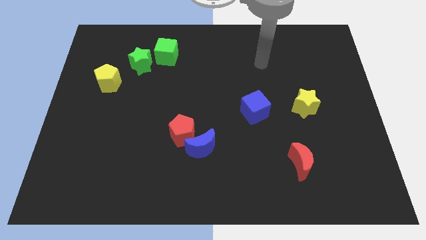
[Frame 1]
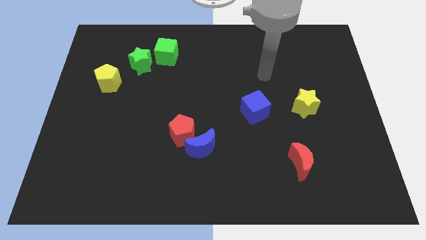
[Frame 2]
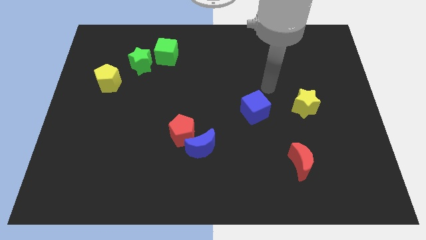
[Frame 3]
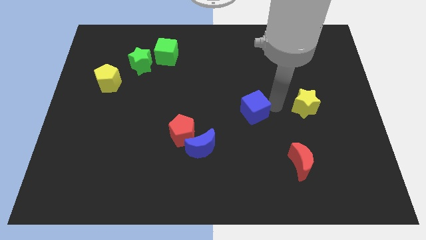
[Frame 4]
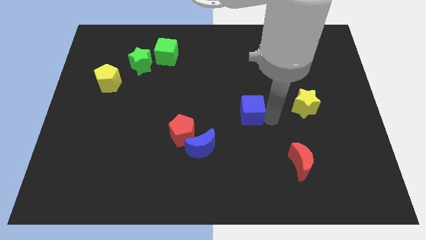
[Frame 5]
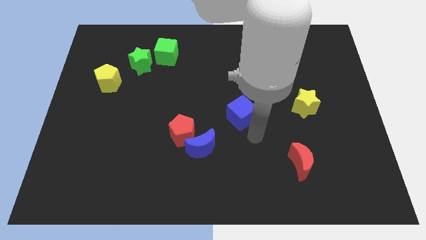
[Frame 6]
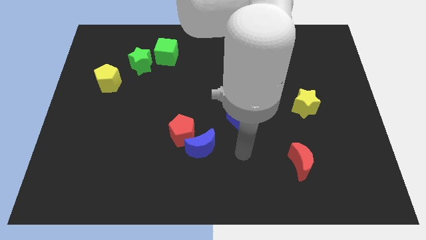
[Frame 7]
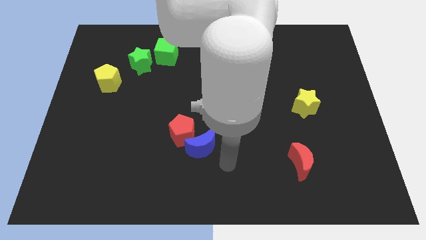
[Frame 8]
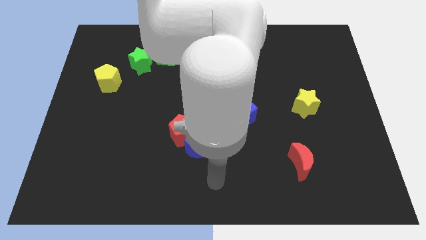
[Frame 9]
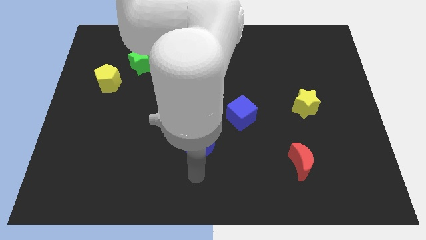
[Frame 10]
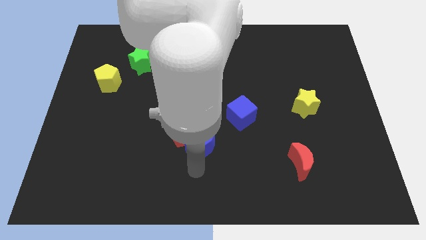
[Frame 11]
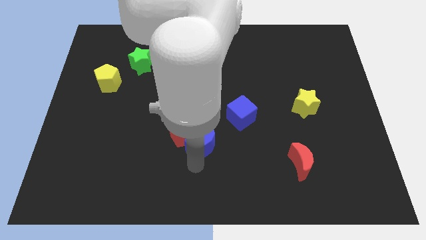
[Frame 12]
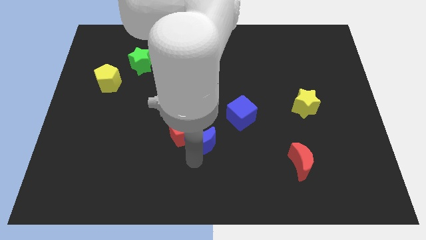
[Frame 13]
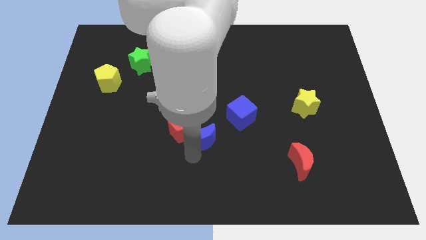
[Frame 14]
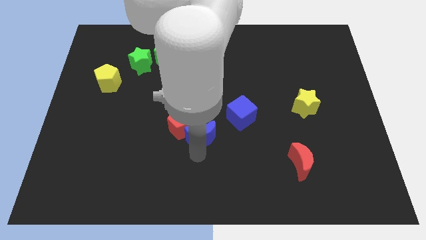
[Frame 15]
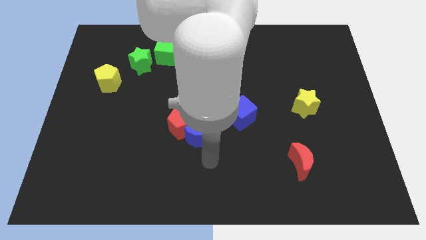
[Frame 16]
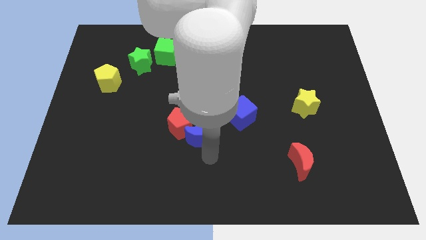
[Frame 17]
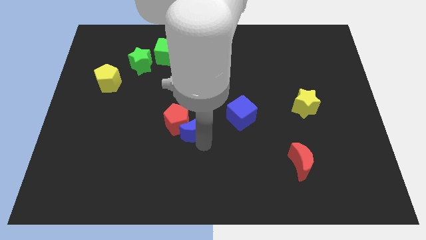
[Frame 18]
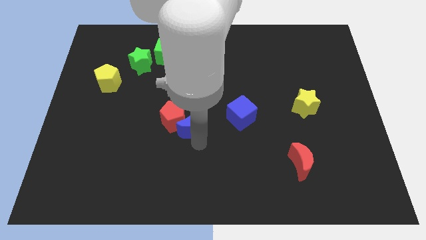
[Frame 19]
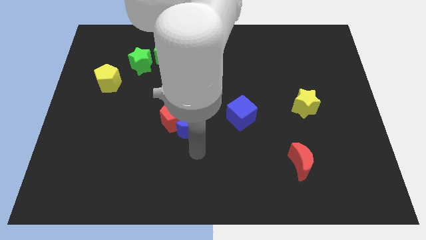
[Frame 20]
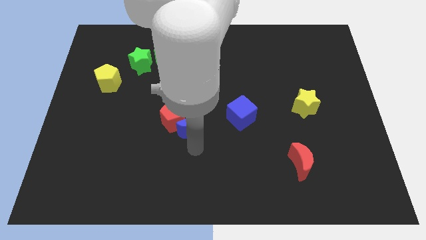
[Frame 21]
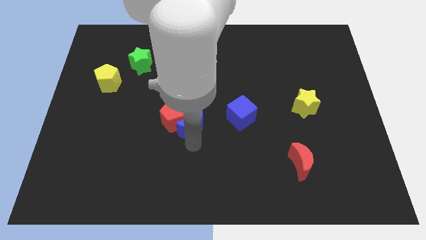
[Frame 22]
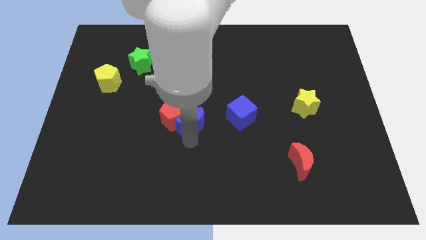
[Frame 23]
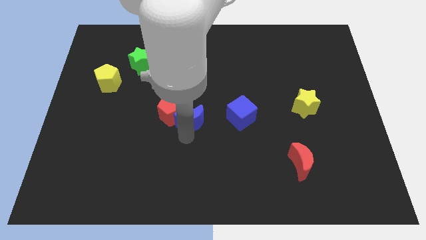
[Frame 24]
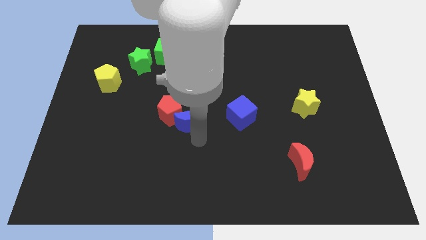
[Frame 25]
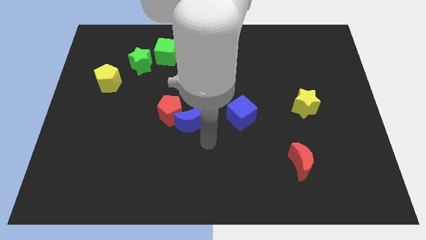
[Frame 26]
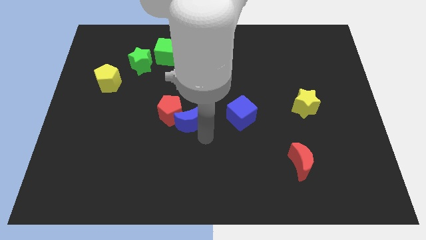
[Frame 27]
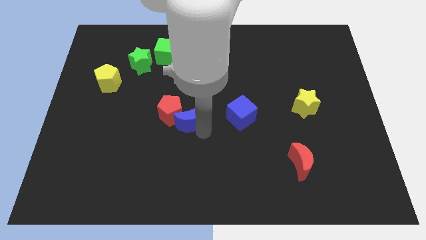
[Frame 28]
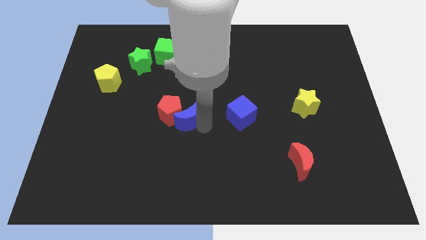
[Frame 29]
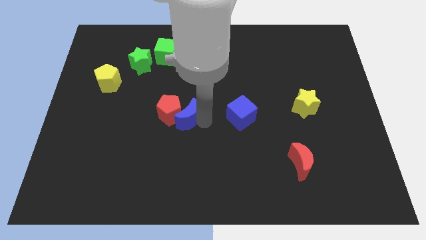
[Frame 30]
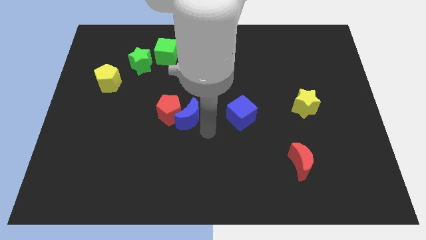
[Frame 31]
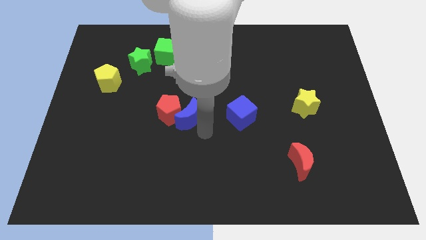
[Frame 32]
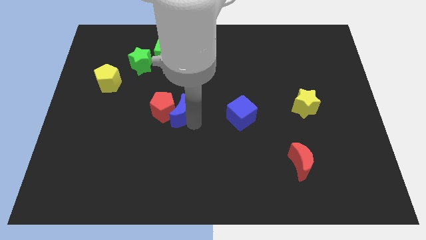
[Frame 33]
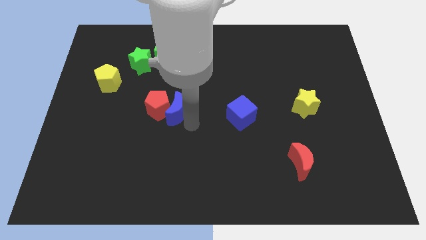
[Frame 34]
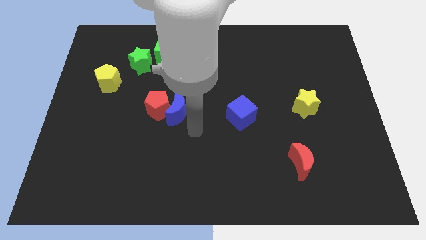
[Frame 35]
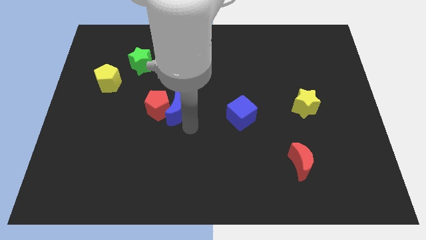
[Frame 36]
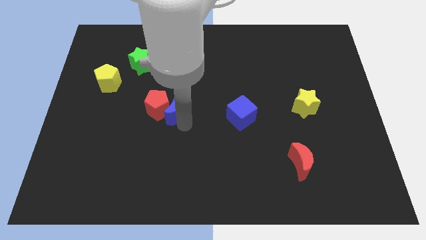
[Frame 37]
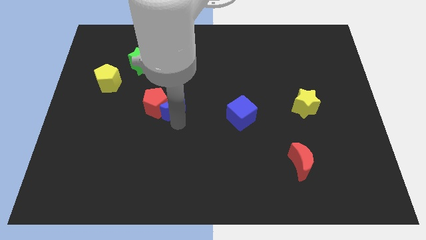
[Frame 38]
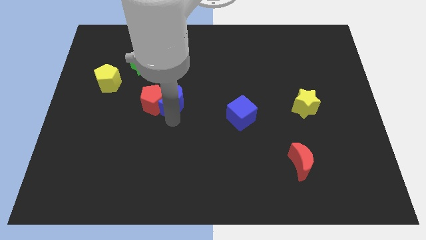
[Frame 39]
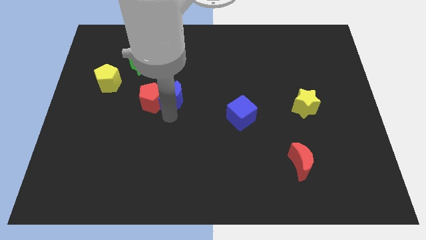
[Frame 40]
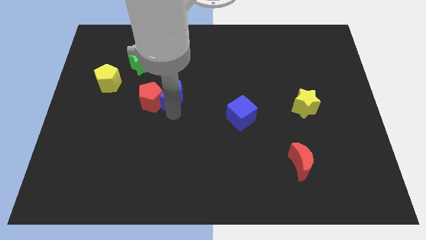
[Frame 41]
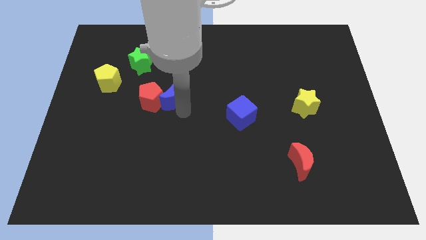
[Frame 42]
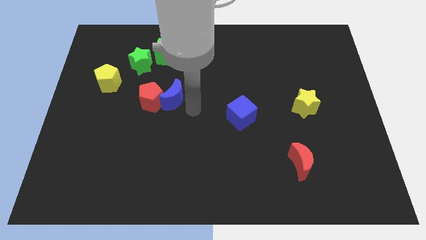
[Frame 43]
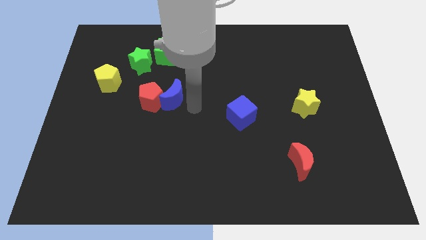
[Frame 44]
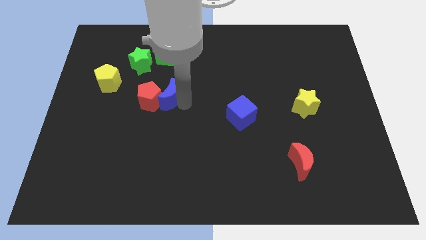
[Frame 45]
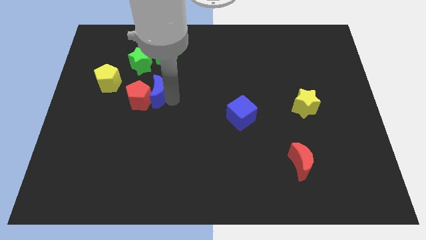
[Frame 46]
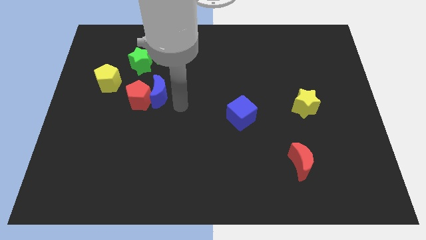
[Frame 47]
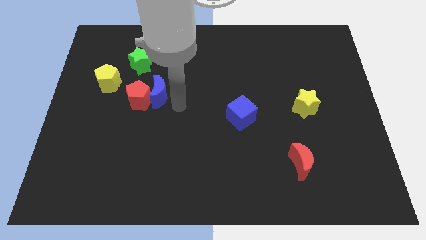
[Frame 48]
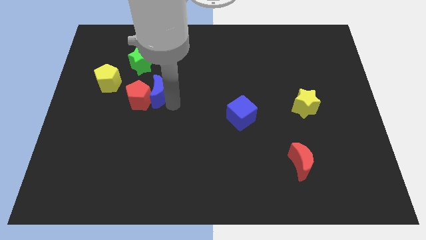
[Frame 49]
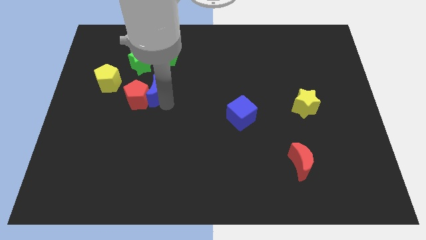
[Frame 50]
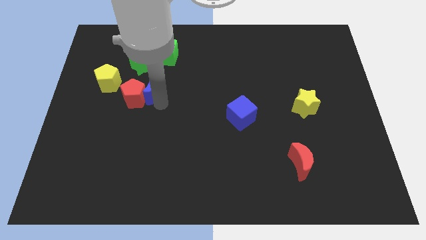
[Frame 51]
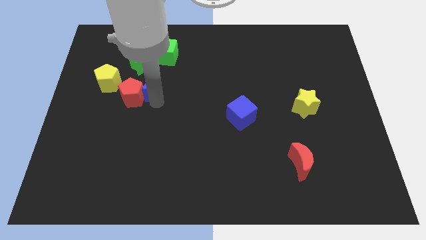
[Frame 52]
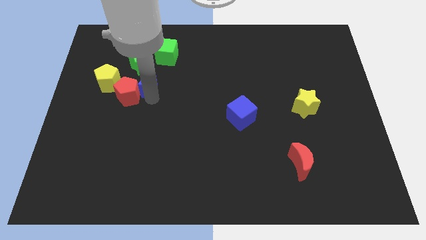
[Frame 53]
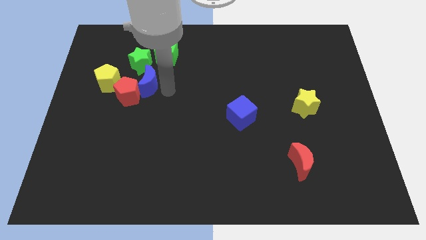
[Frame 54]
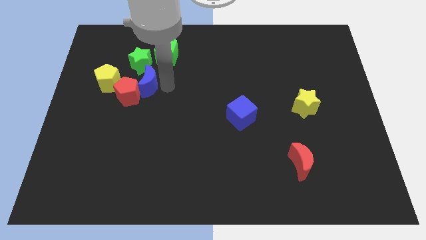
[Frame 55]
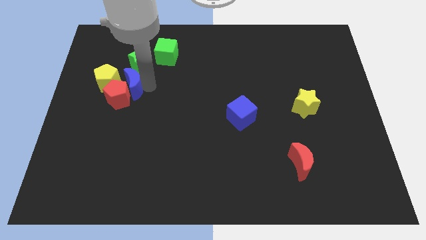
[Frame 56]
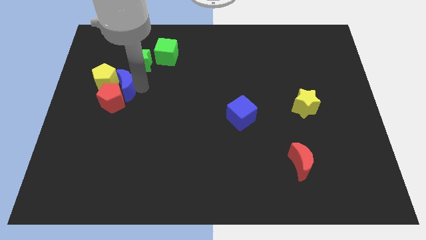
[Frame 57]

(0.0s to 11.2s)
slide the blue moon next to the yellow pentagon

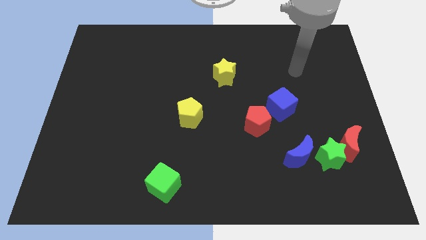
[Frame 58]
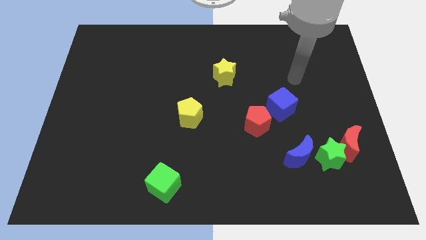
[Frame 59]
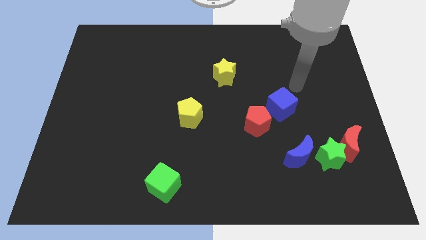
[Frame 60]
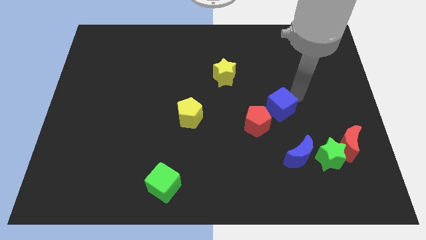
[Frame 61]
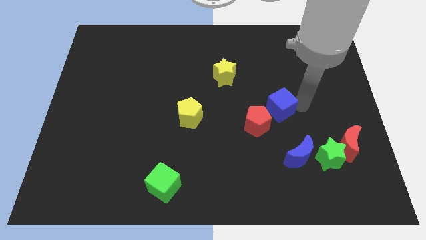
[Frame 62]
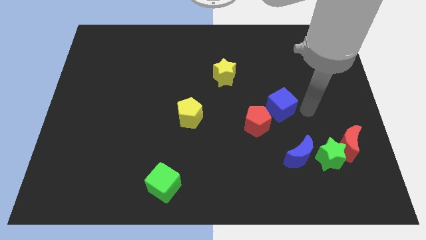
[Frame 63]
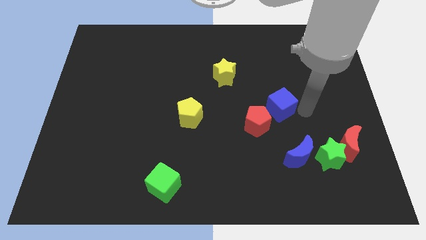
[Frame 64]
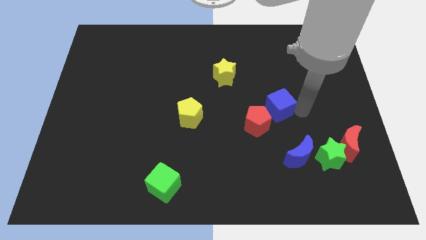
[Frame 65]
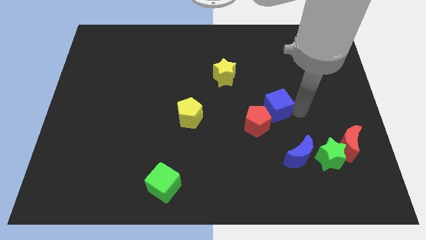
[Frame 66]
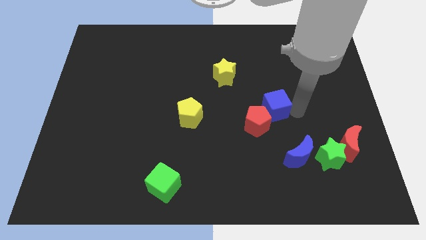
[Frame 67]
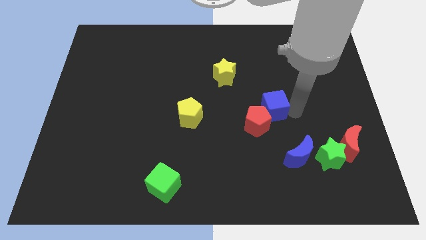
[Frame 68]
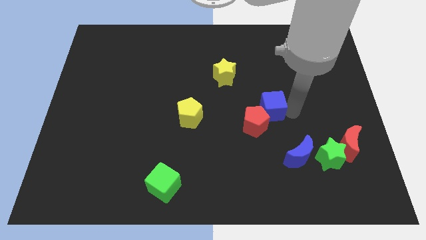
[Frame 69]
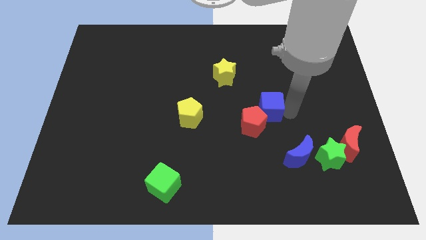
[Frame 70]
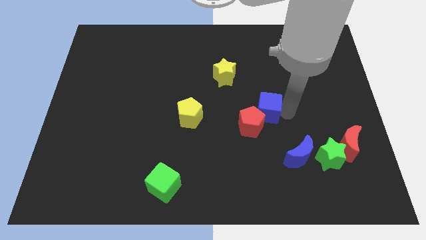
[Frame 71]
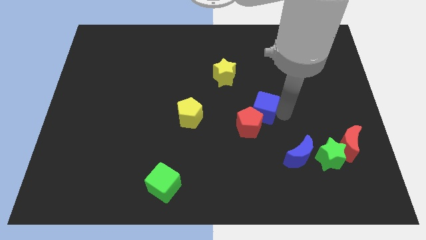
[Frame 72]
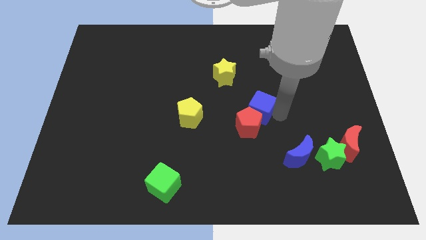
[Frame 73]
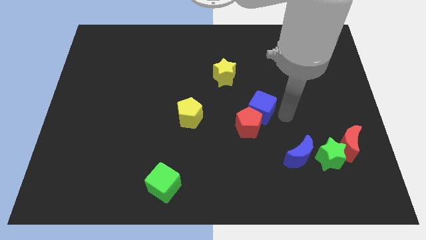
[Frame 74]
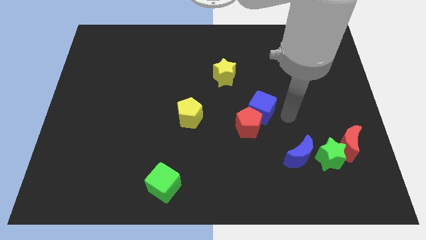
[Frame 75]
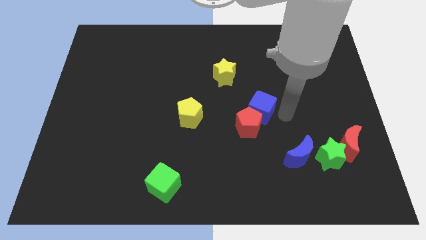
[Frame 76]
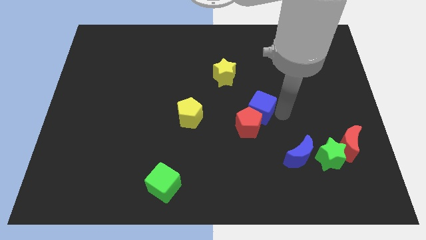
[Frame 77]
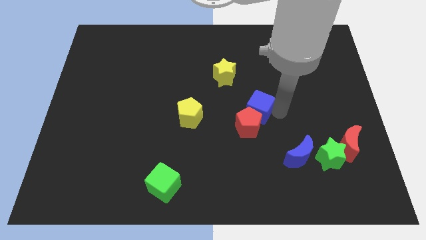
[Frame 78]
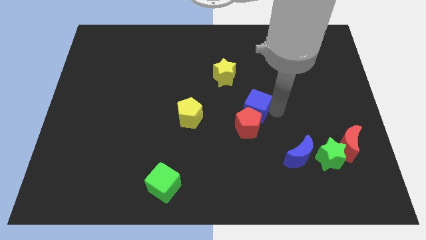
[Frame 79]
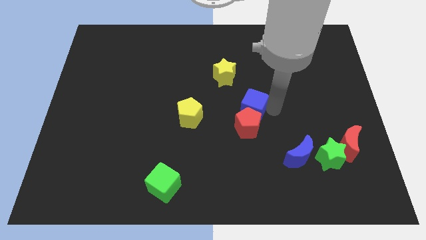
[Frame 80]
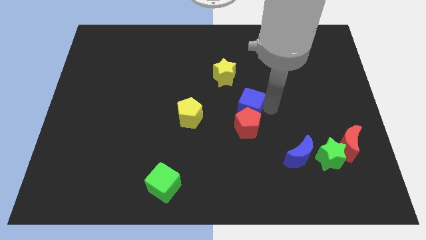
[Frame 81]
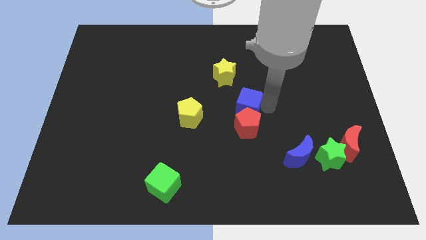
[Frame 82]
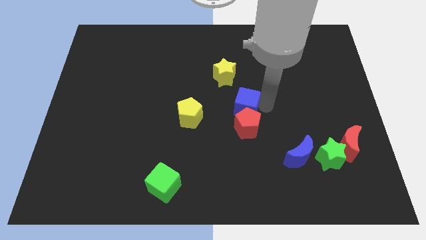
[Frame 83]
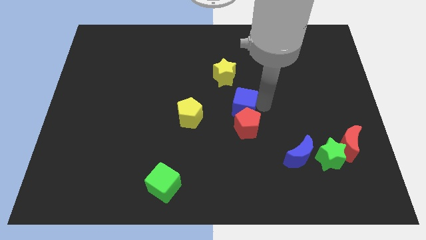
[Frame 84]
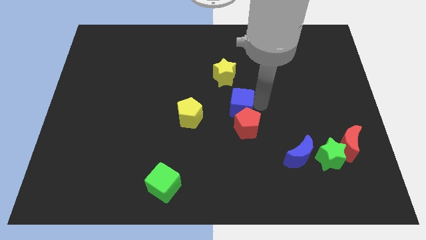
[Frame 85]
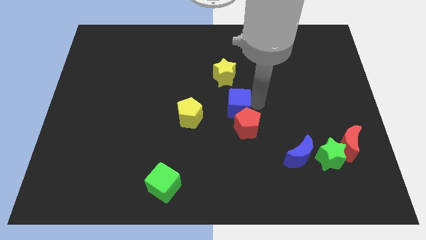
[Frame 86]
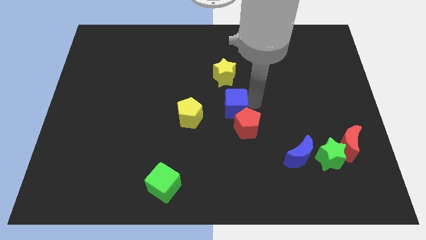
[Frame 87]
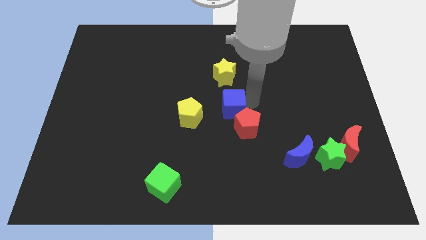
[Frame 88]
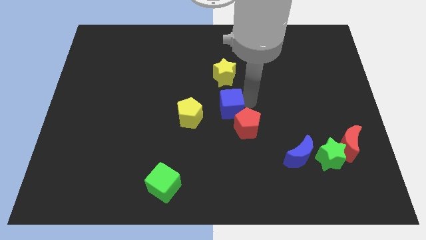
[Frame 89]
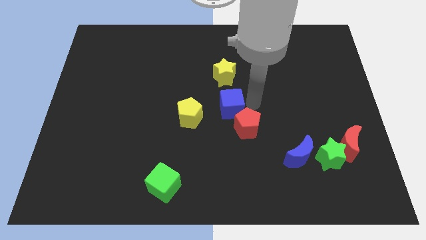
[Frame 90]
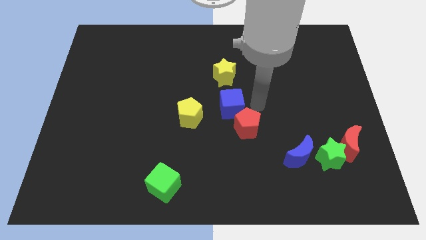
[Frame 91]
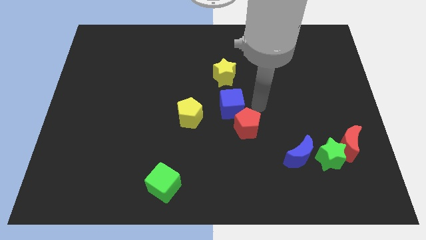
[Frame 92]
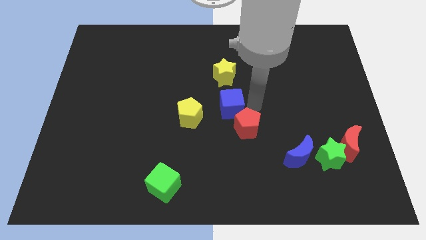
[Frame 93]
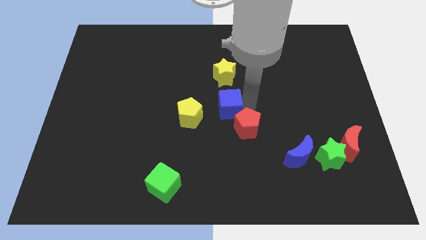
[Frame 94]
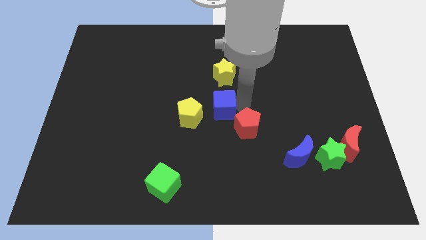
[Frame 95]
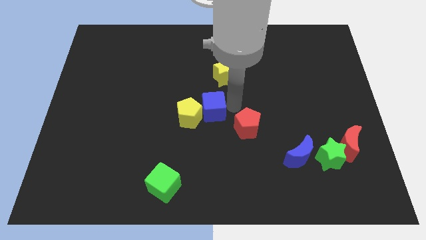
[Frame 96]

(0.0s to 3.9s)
push the blue cube to the yellow pentagon
